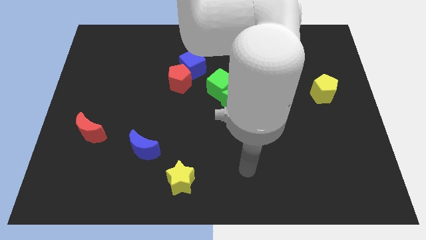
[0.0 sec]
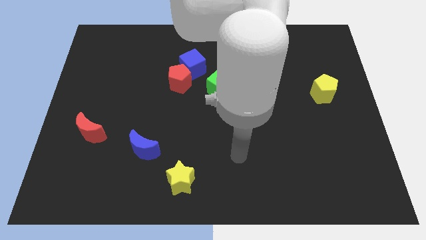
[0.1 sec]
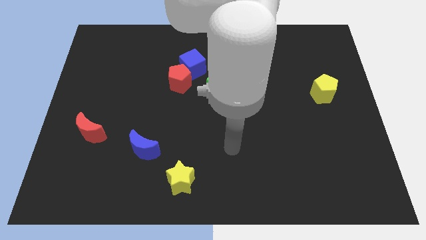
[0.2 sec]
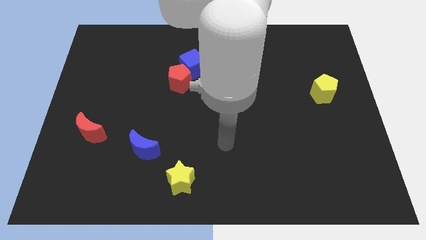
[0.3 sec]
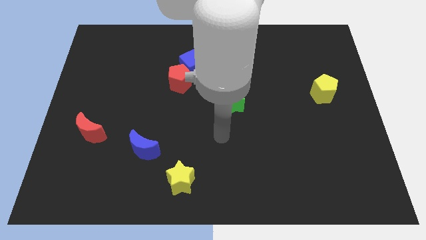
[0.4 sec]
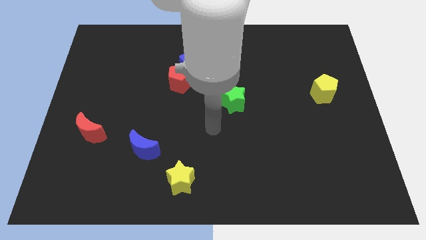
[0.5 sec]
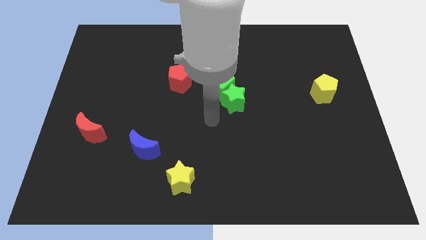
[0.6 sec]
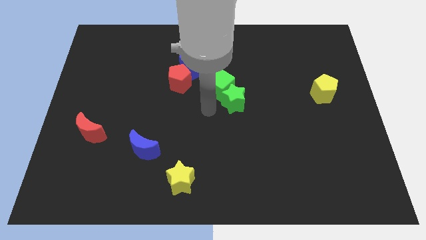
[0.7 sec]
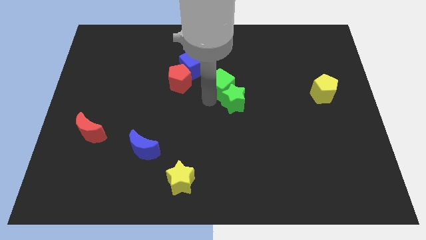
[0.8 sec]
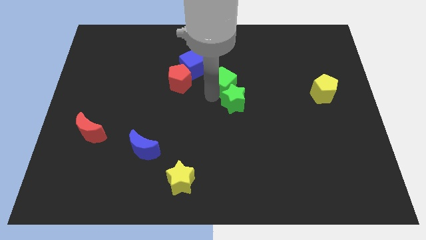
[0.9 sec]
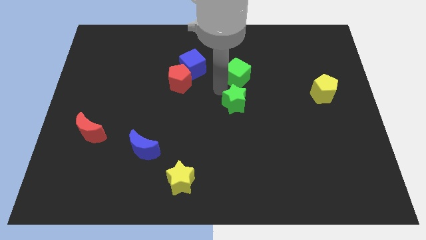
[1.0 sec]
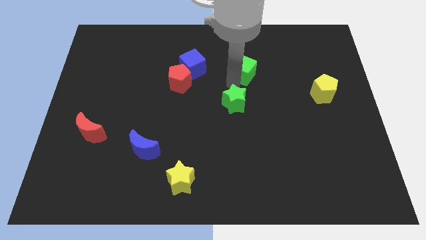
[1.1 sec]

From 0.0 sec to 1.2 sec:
pull the green star apart from the green cube

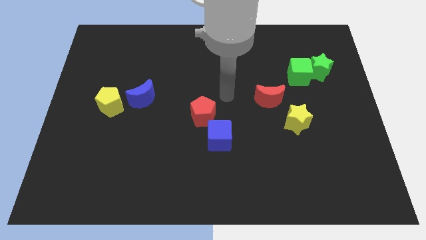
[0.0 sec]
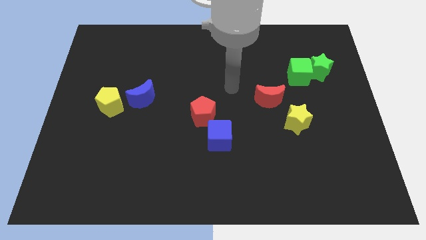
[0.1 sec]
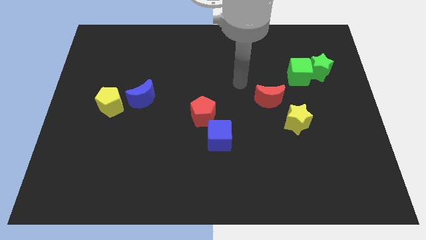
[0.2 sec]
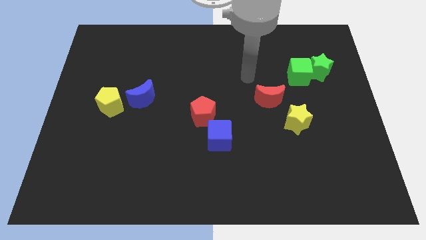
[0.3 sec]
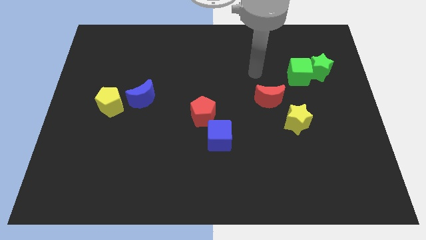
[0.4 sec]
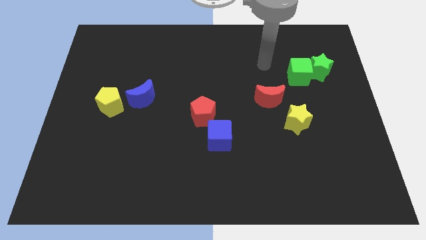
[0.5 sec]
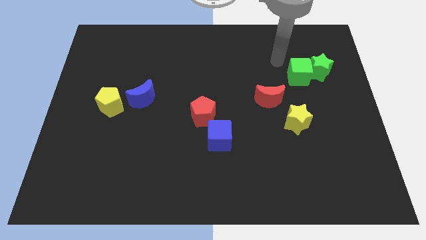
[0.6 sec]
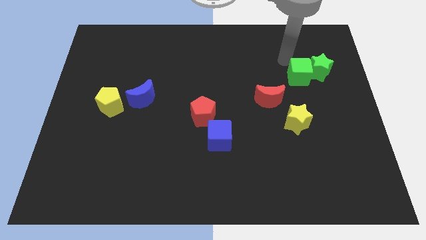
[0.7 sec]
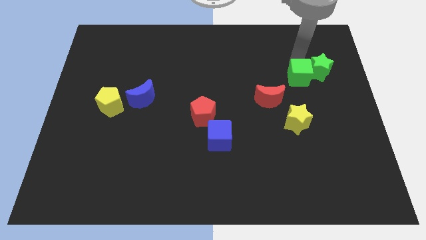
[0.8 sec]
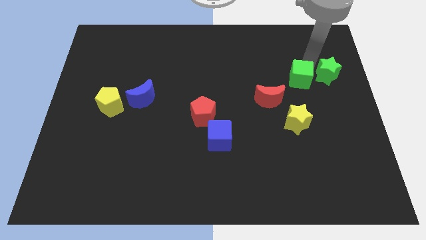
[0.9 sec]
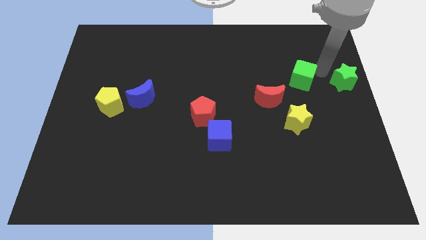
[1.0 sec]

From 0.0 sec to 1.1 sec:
separate the green cube from the green star

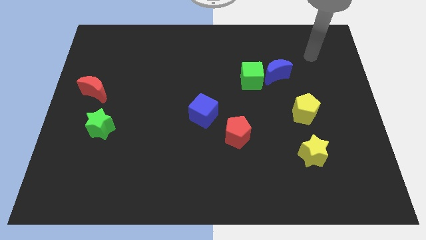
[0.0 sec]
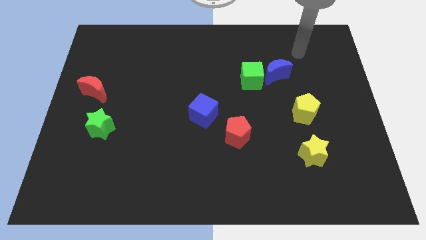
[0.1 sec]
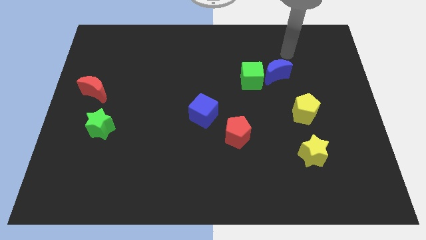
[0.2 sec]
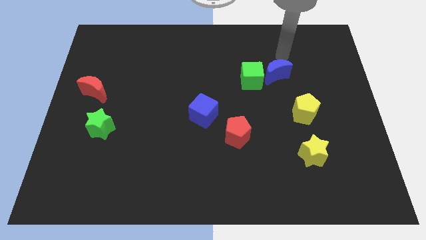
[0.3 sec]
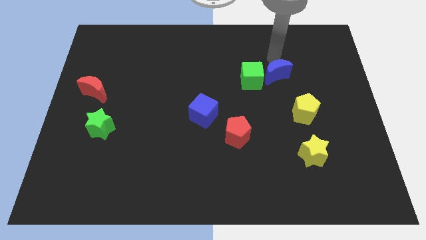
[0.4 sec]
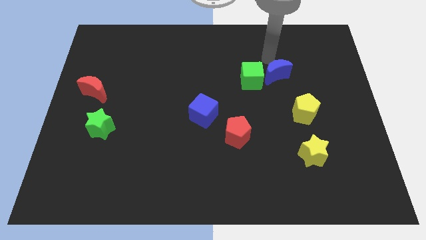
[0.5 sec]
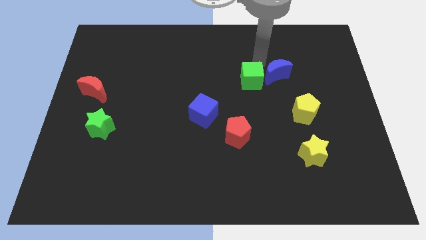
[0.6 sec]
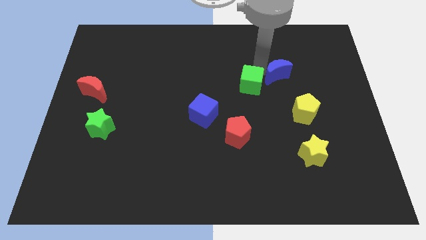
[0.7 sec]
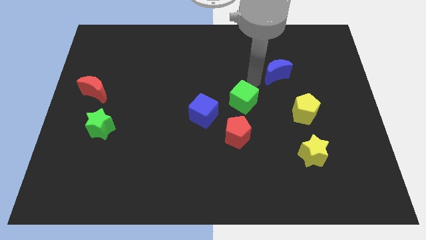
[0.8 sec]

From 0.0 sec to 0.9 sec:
pull the blue moon apart from the green cube

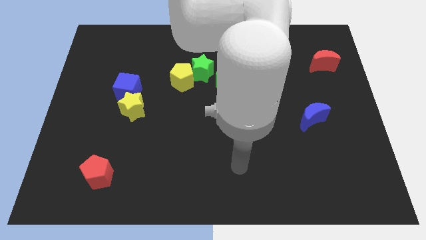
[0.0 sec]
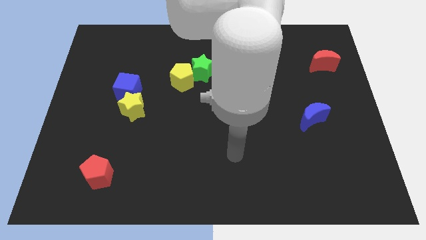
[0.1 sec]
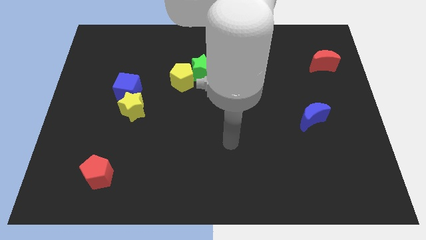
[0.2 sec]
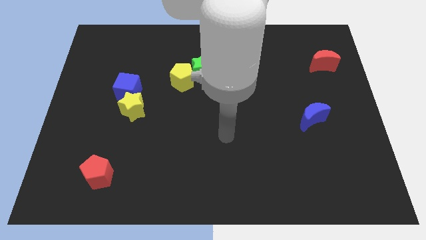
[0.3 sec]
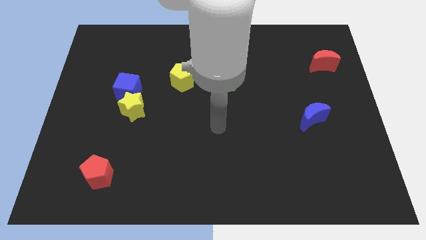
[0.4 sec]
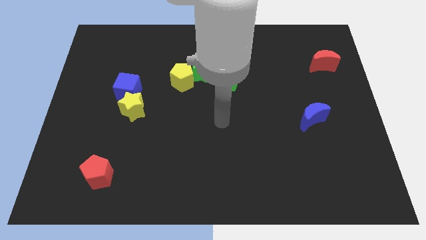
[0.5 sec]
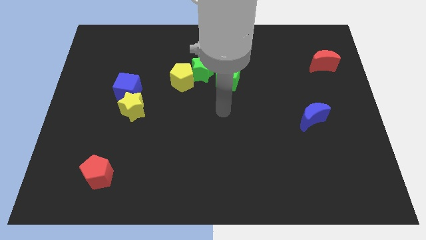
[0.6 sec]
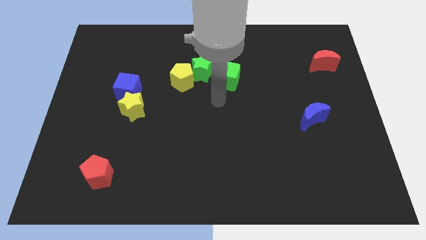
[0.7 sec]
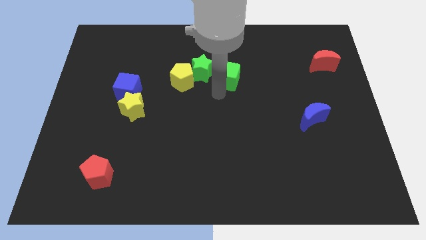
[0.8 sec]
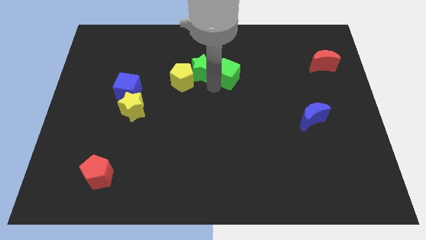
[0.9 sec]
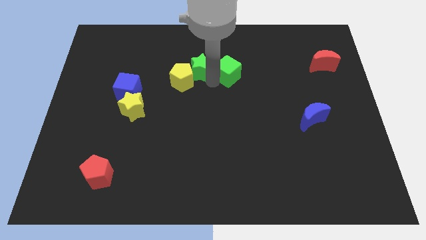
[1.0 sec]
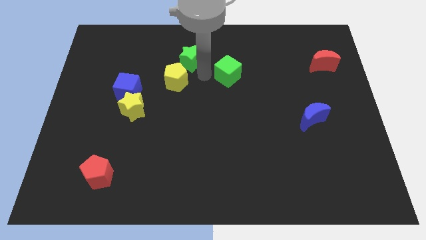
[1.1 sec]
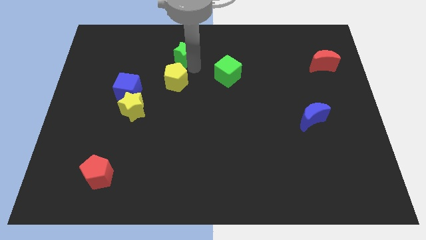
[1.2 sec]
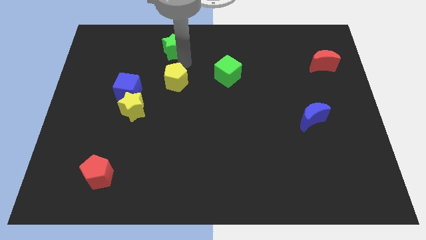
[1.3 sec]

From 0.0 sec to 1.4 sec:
separate the yellow pentagon from the green star

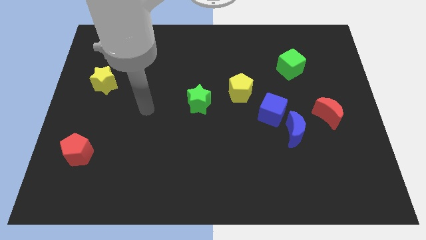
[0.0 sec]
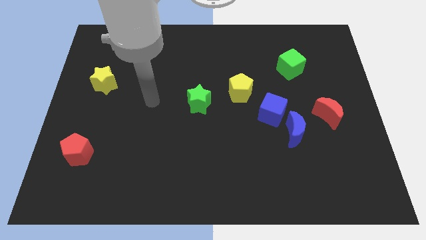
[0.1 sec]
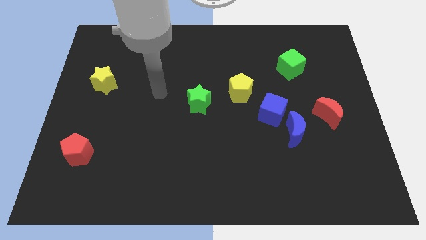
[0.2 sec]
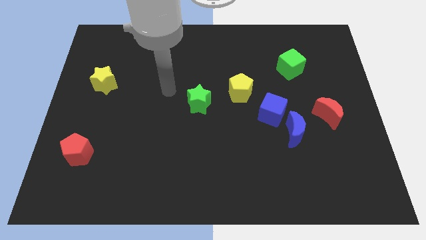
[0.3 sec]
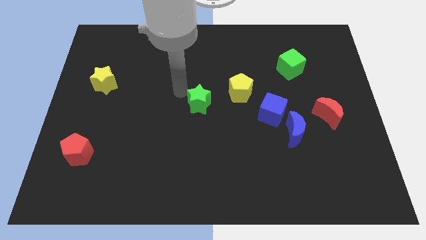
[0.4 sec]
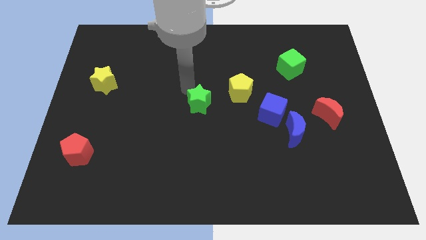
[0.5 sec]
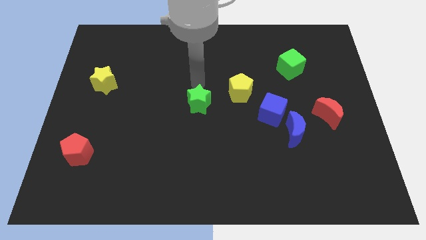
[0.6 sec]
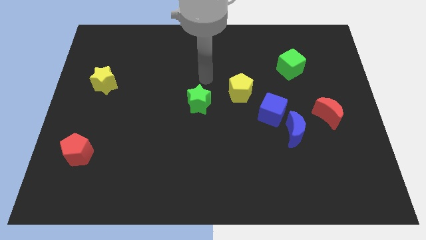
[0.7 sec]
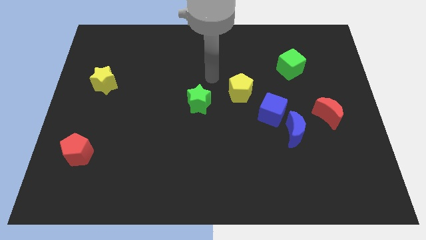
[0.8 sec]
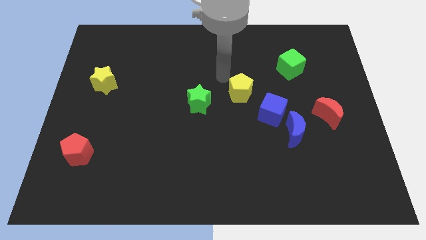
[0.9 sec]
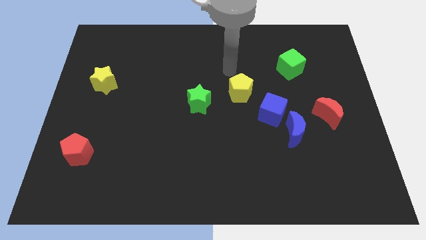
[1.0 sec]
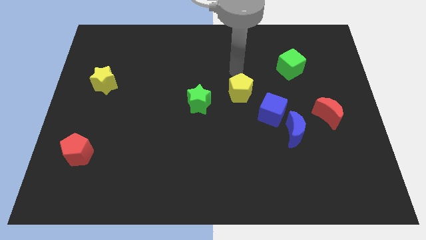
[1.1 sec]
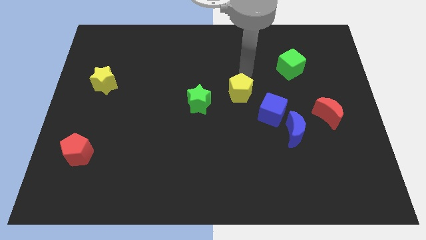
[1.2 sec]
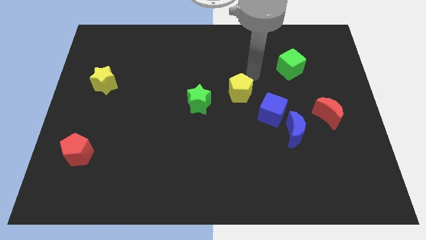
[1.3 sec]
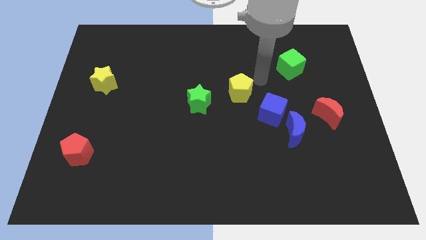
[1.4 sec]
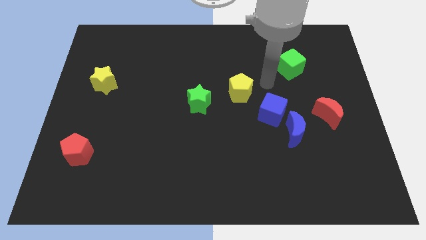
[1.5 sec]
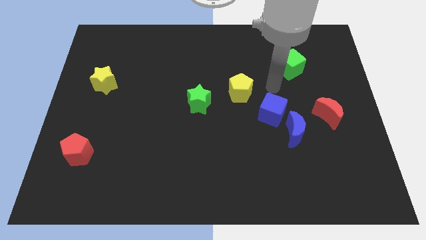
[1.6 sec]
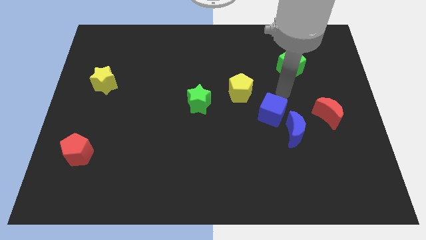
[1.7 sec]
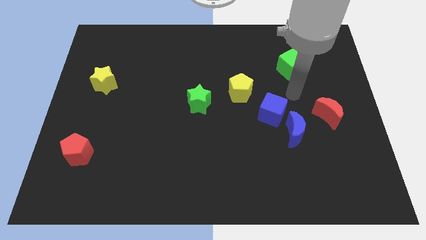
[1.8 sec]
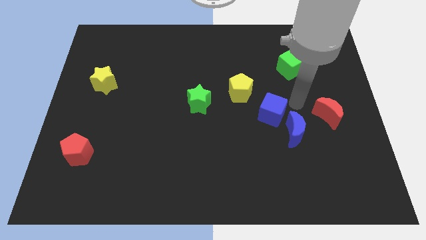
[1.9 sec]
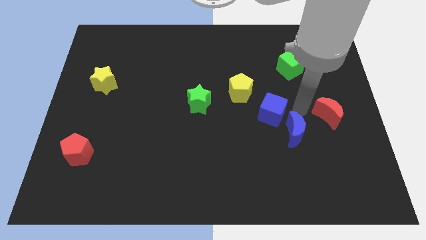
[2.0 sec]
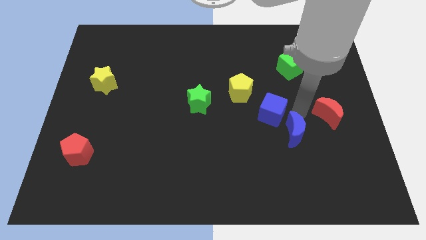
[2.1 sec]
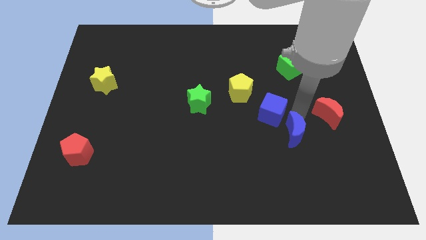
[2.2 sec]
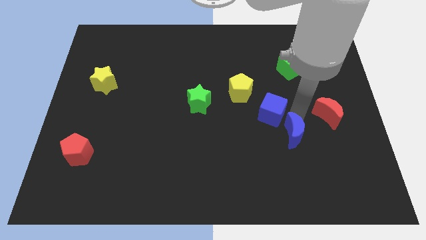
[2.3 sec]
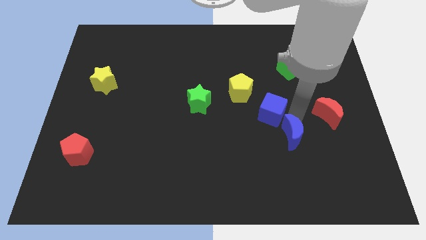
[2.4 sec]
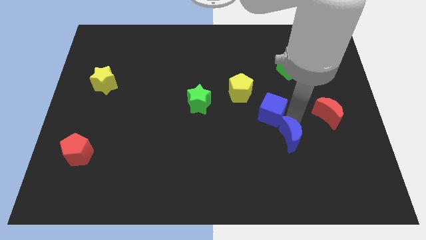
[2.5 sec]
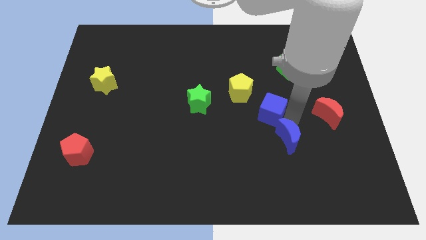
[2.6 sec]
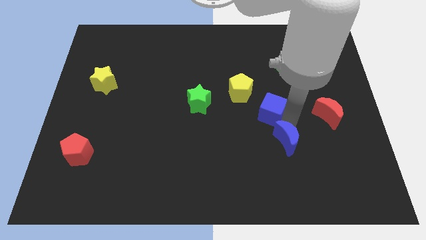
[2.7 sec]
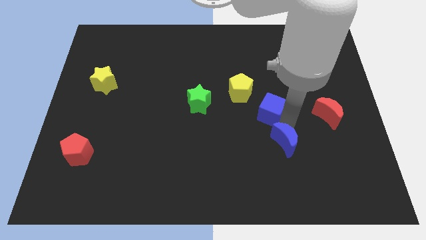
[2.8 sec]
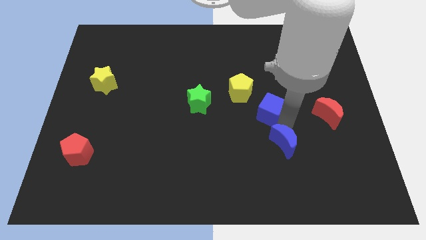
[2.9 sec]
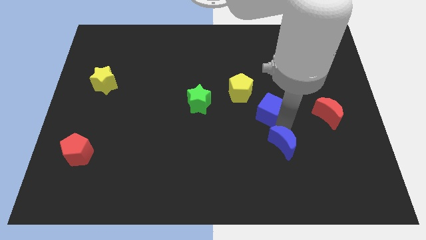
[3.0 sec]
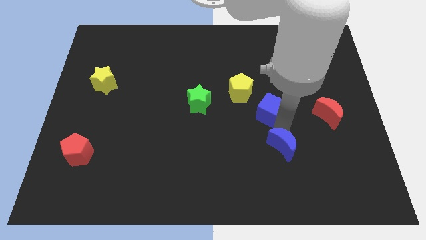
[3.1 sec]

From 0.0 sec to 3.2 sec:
move the blue moon away from the blue cube and red moon

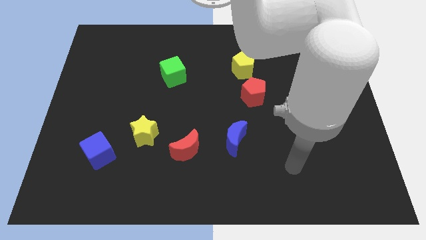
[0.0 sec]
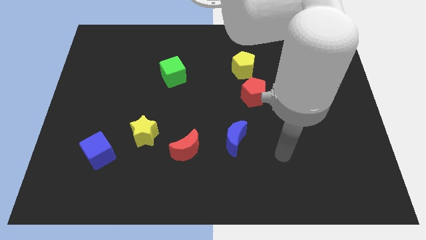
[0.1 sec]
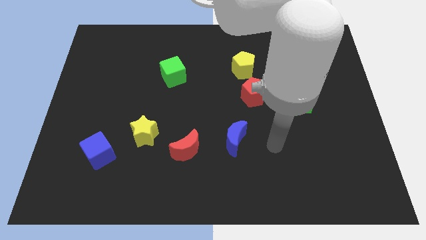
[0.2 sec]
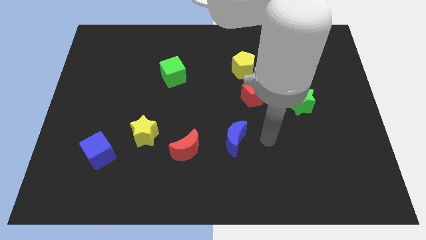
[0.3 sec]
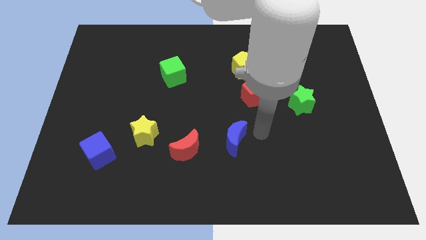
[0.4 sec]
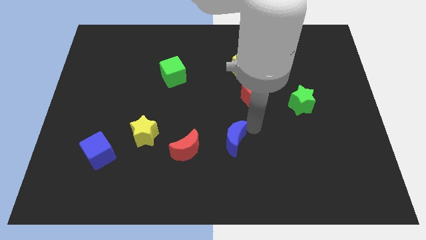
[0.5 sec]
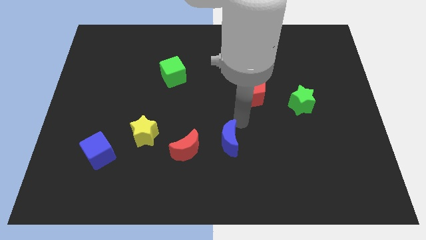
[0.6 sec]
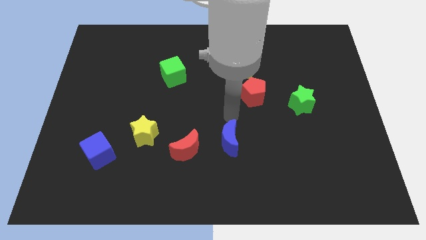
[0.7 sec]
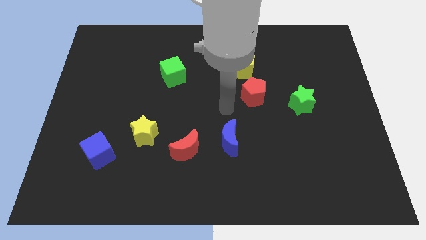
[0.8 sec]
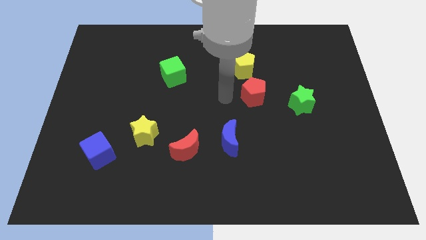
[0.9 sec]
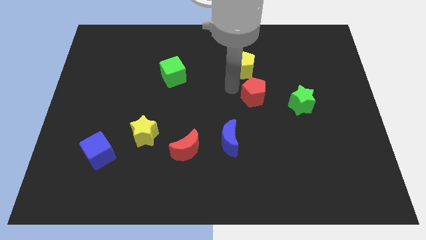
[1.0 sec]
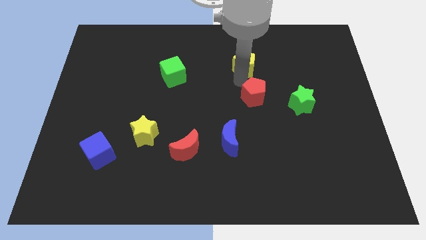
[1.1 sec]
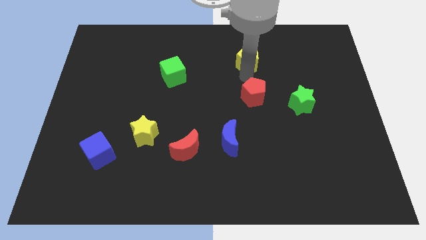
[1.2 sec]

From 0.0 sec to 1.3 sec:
move the red pentagon away from the yellow pentagon

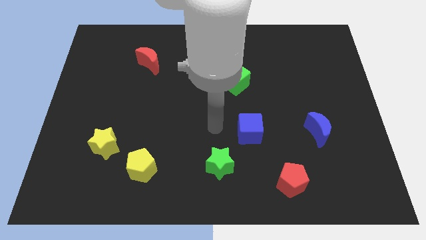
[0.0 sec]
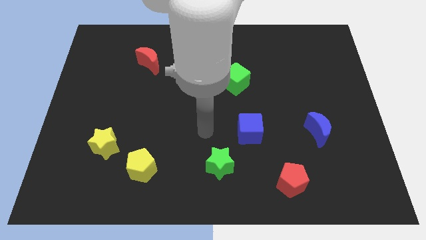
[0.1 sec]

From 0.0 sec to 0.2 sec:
move the yellow star away from the yellow pentagon
